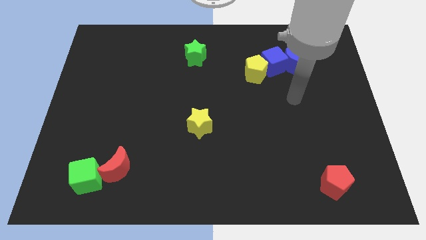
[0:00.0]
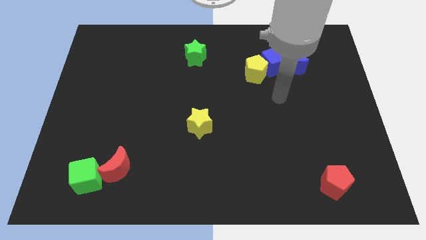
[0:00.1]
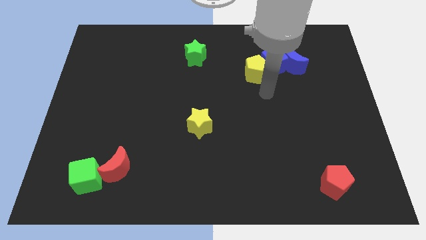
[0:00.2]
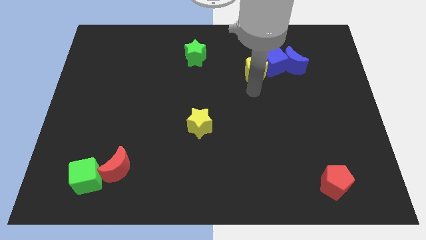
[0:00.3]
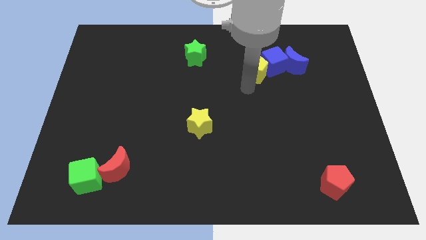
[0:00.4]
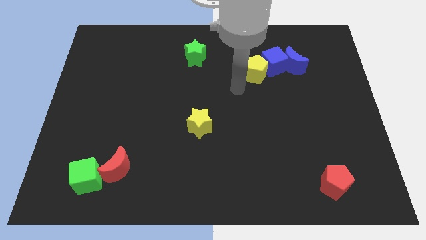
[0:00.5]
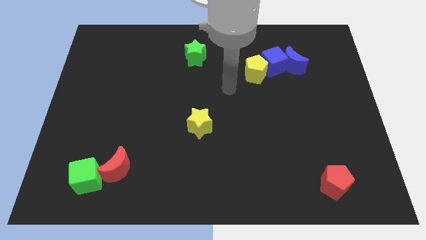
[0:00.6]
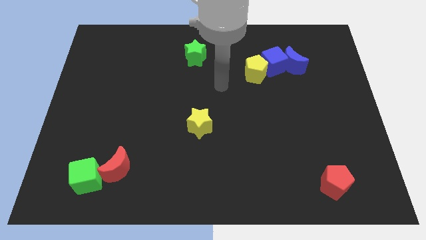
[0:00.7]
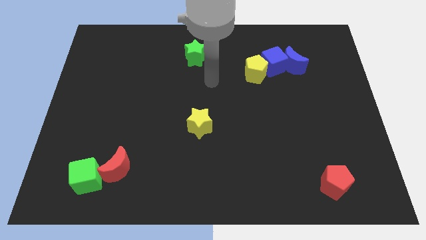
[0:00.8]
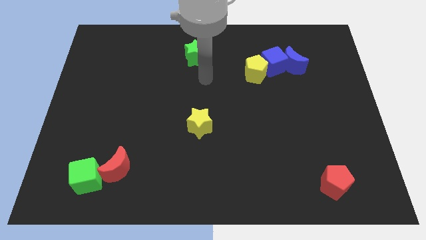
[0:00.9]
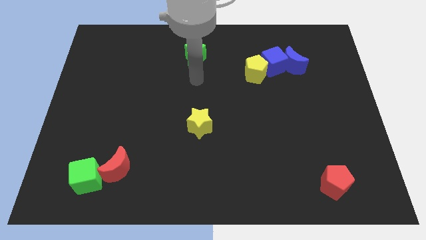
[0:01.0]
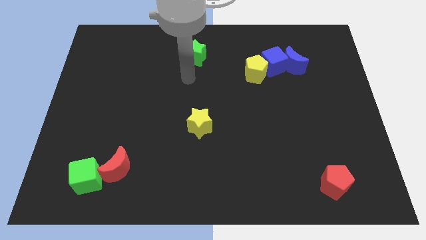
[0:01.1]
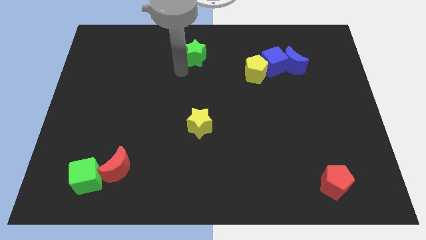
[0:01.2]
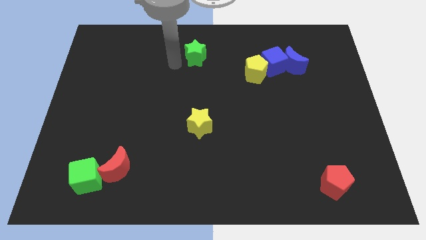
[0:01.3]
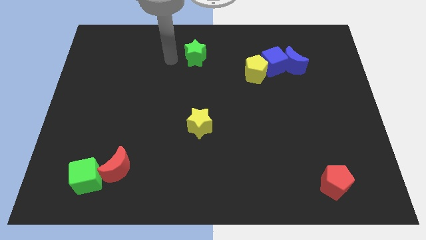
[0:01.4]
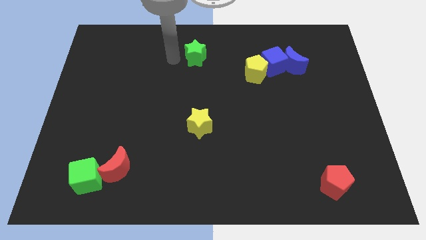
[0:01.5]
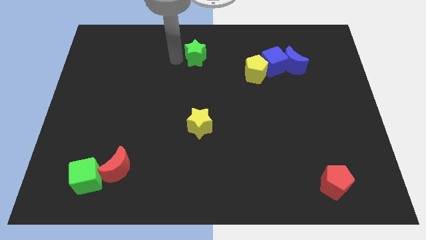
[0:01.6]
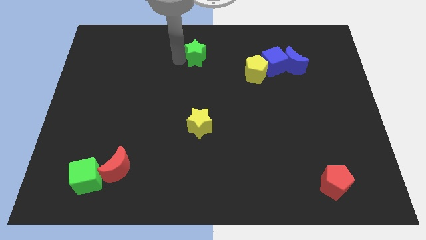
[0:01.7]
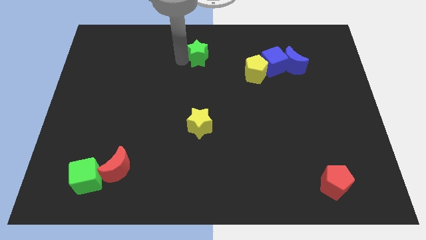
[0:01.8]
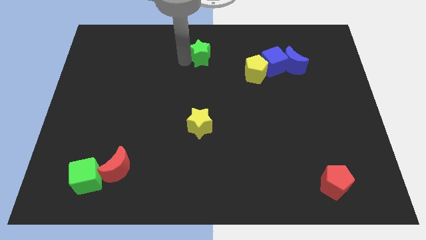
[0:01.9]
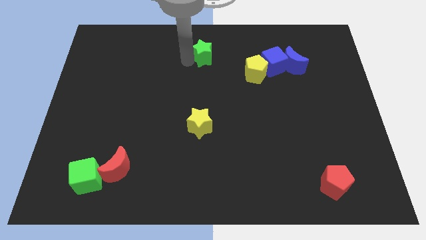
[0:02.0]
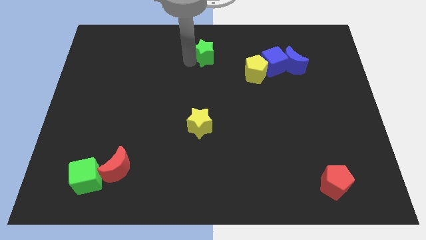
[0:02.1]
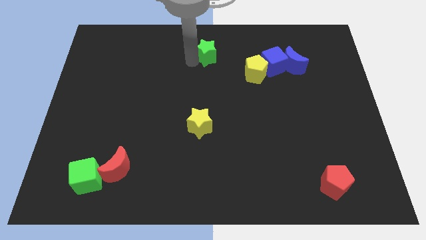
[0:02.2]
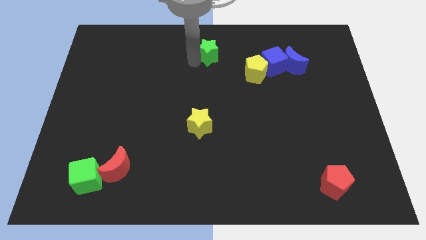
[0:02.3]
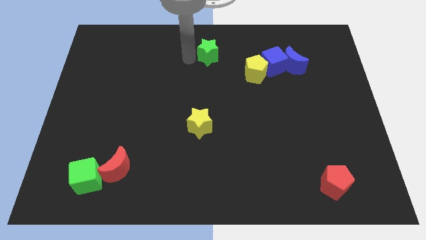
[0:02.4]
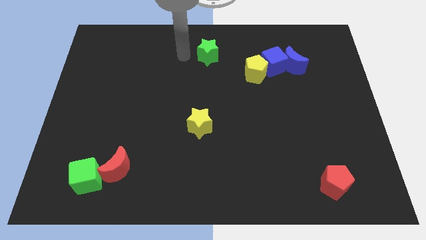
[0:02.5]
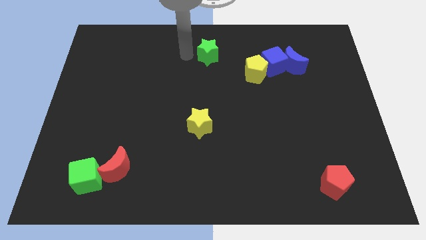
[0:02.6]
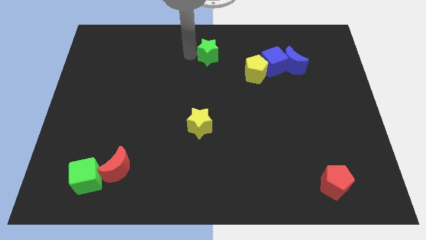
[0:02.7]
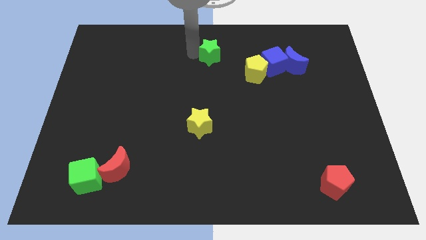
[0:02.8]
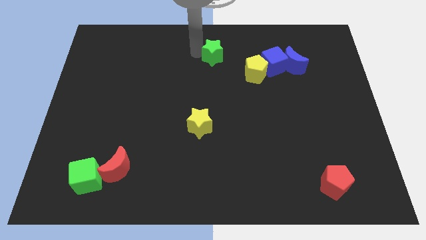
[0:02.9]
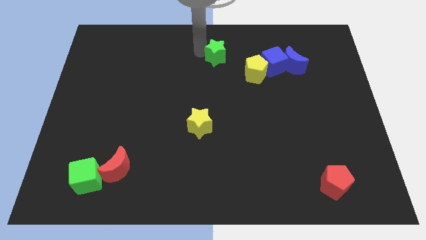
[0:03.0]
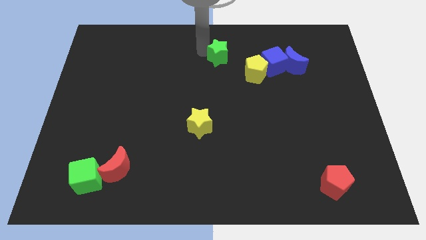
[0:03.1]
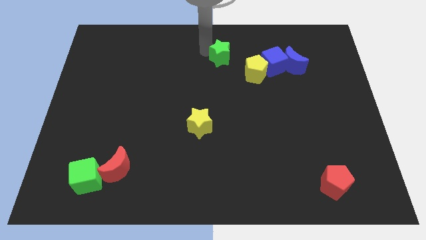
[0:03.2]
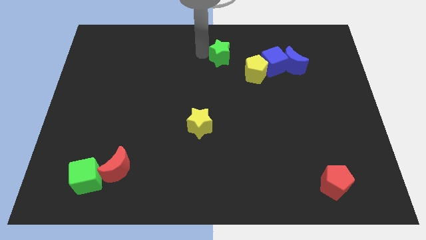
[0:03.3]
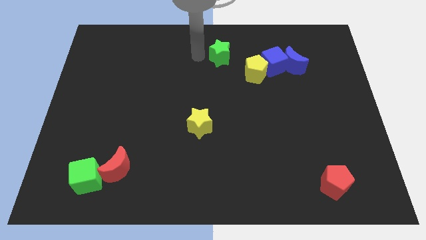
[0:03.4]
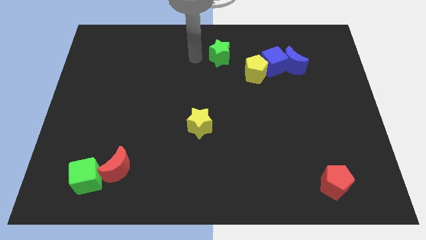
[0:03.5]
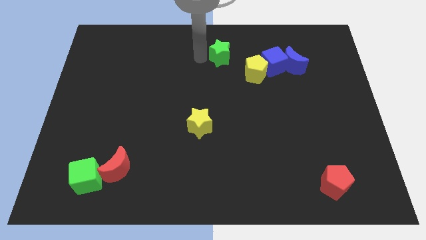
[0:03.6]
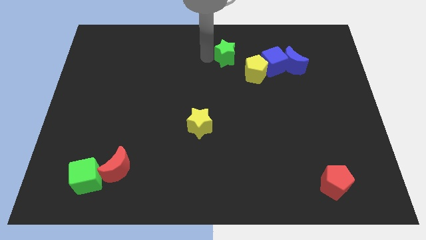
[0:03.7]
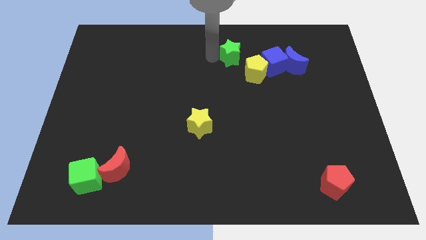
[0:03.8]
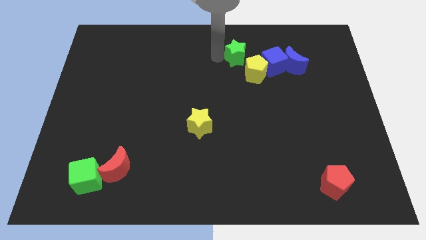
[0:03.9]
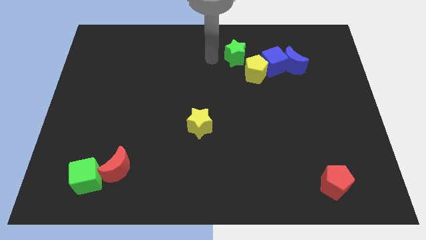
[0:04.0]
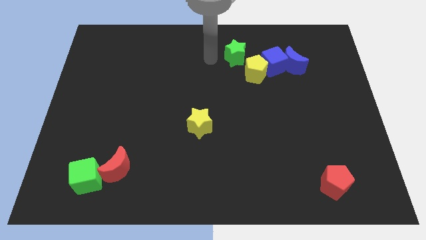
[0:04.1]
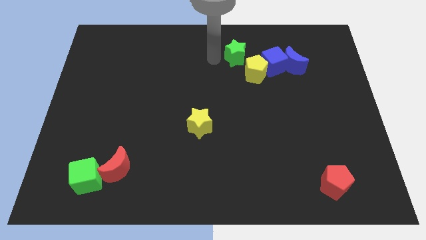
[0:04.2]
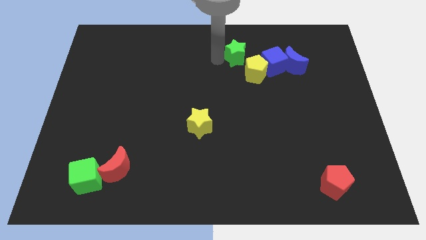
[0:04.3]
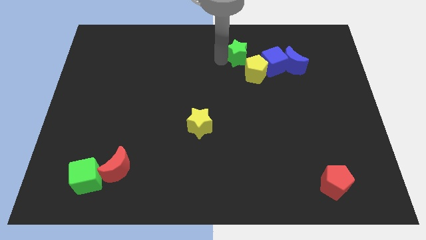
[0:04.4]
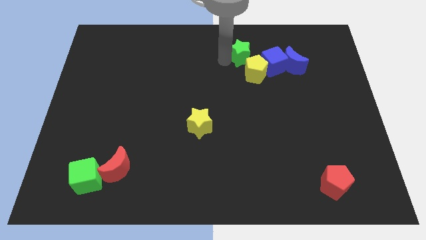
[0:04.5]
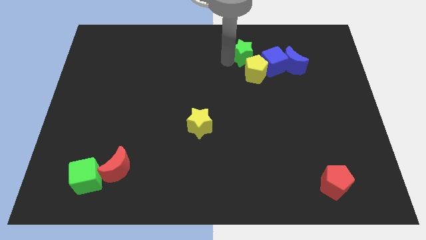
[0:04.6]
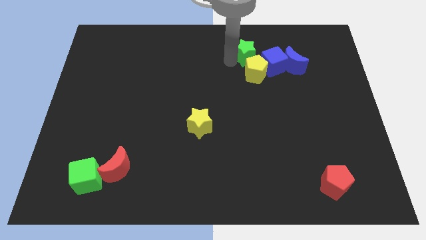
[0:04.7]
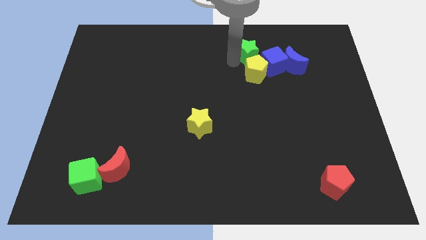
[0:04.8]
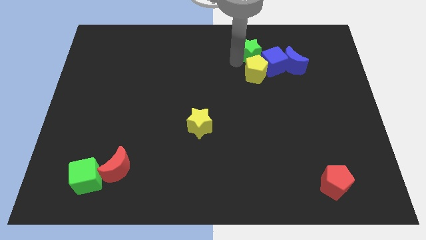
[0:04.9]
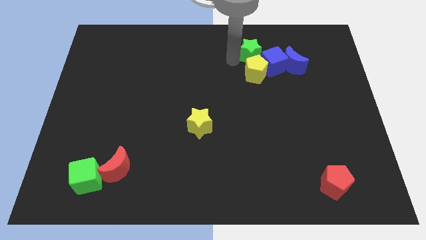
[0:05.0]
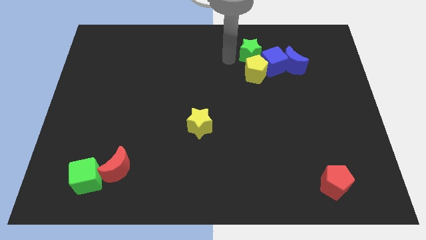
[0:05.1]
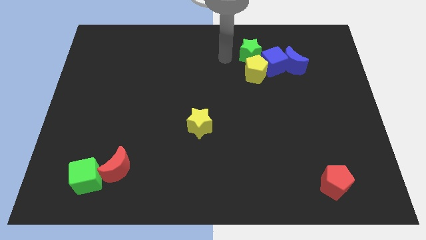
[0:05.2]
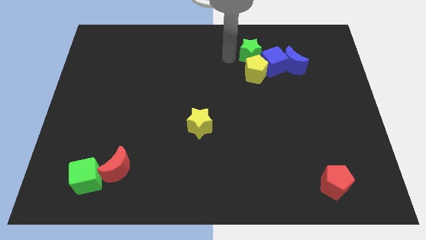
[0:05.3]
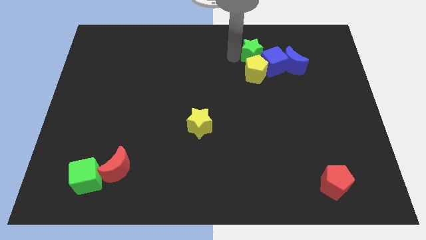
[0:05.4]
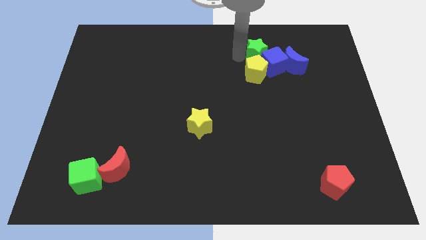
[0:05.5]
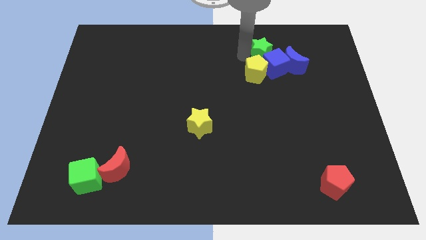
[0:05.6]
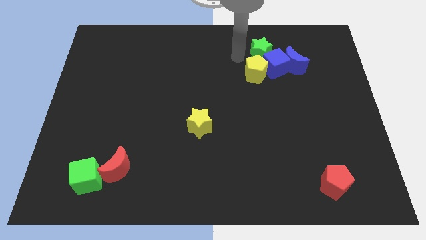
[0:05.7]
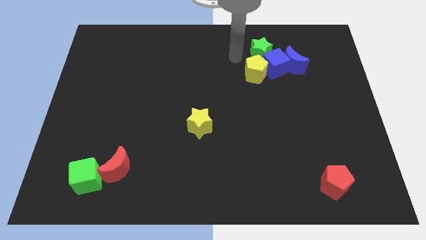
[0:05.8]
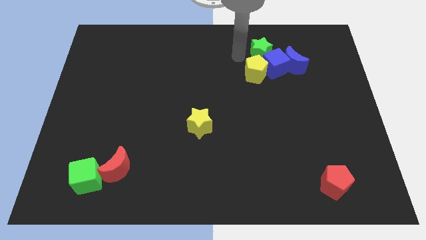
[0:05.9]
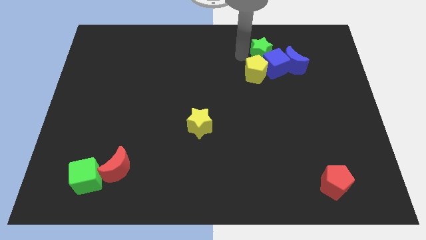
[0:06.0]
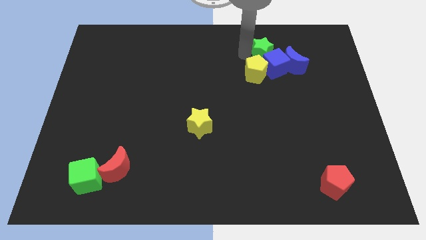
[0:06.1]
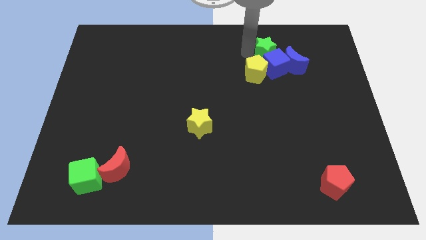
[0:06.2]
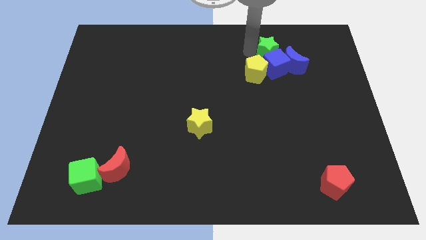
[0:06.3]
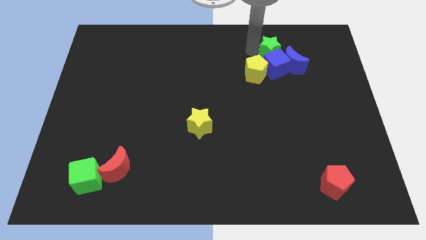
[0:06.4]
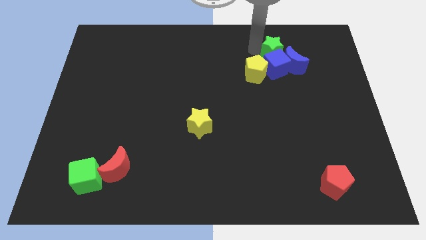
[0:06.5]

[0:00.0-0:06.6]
slide the green star right

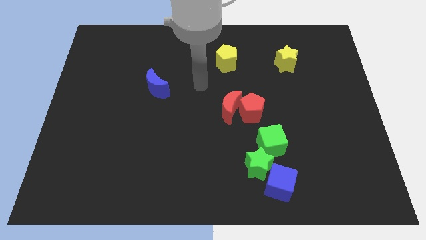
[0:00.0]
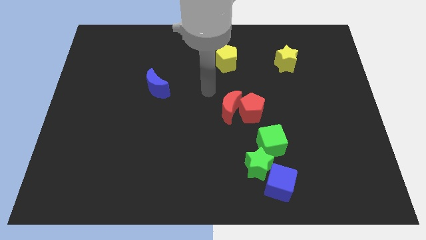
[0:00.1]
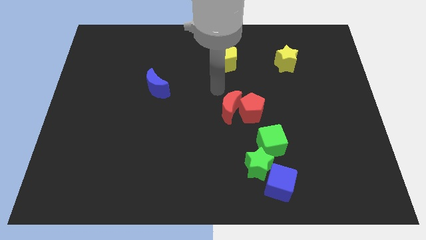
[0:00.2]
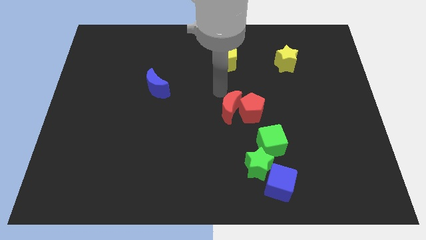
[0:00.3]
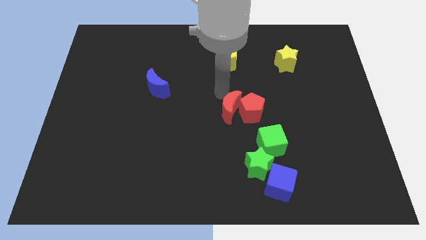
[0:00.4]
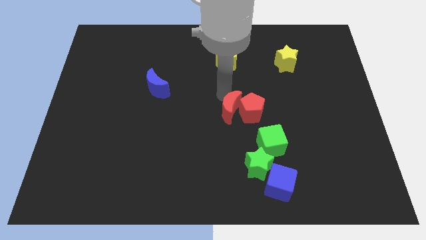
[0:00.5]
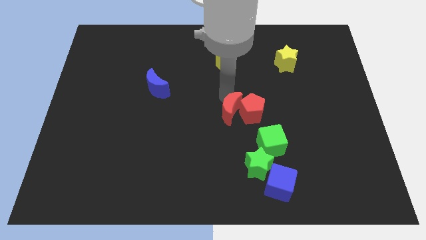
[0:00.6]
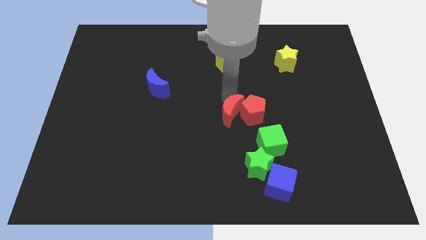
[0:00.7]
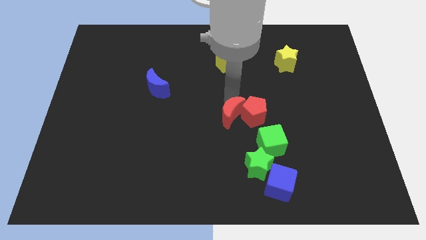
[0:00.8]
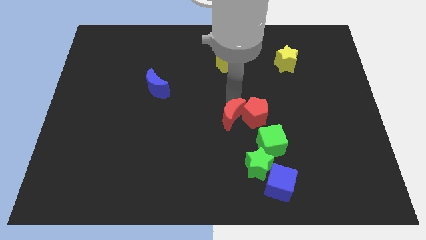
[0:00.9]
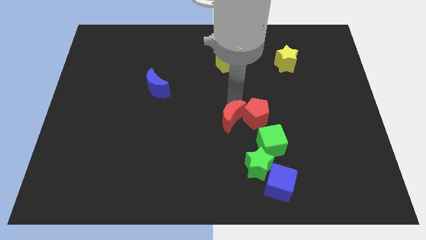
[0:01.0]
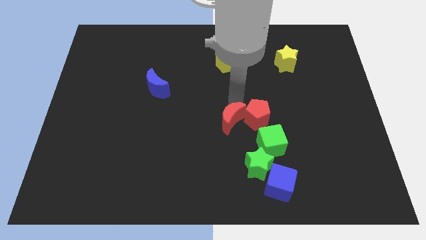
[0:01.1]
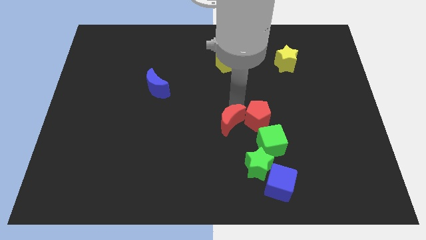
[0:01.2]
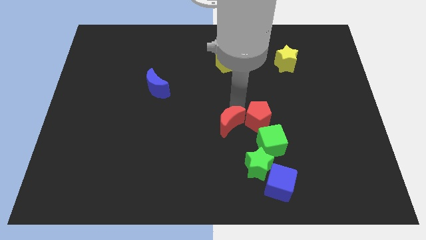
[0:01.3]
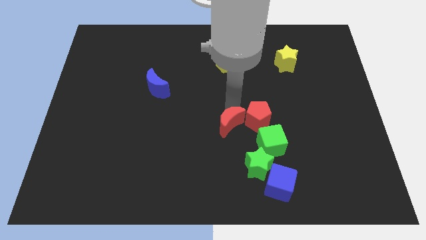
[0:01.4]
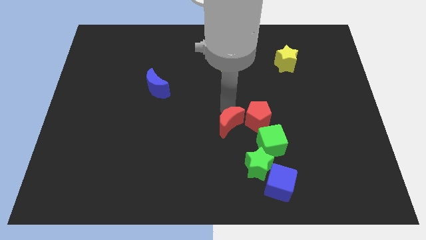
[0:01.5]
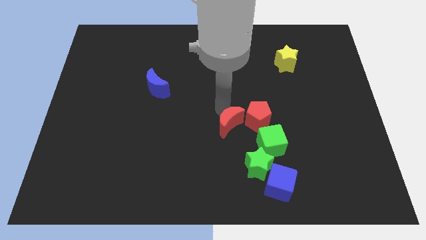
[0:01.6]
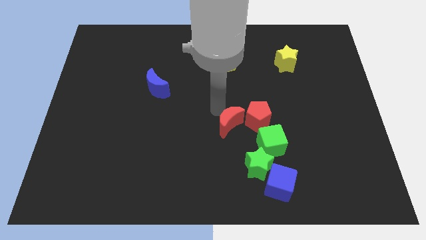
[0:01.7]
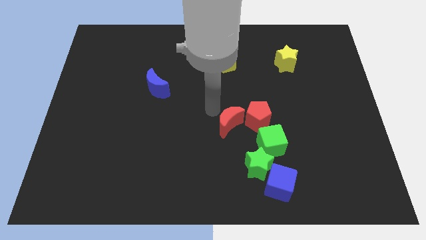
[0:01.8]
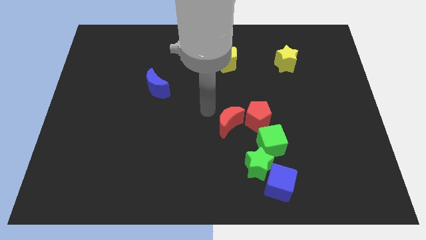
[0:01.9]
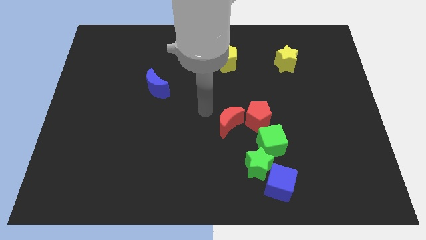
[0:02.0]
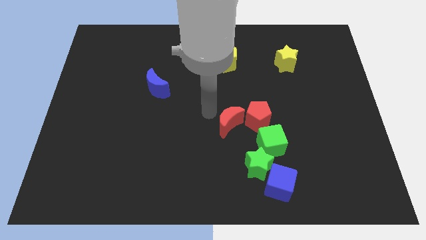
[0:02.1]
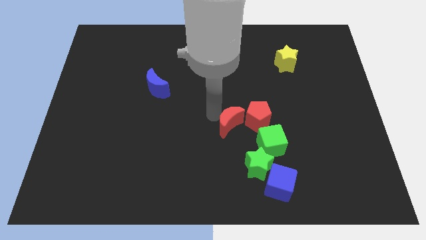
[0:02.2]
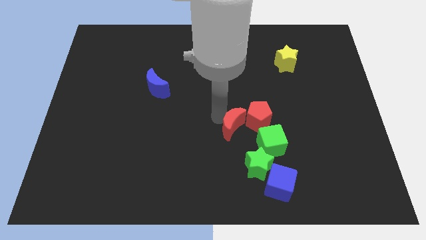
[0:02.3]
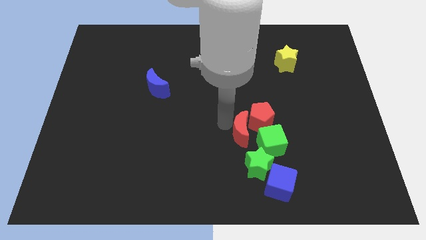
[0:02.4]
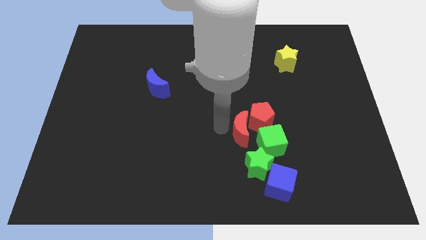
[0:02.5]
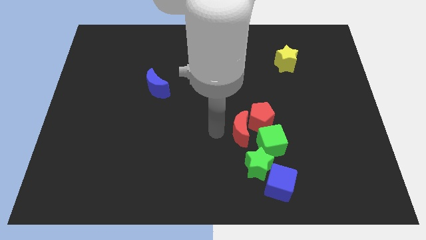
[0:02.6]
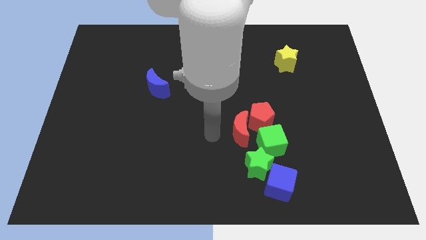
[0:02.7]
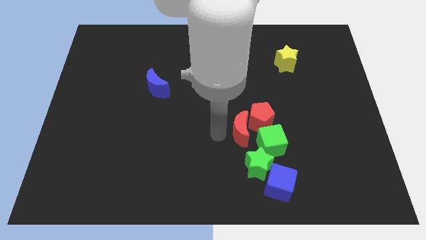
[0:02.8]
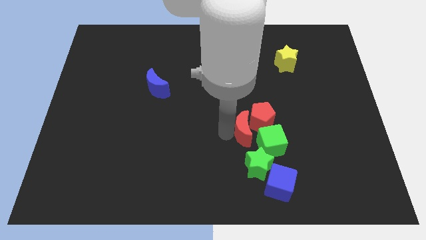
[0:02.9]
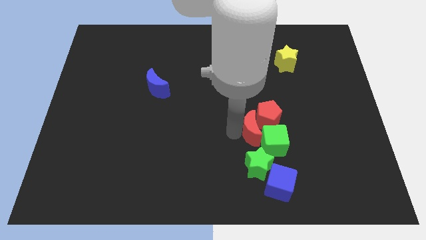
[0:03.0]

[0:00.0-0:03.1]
slide the red moon a little bit down and then right
